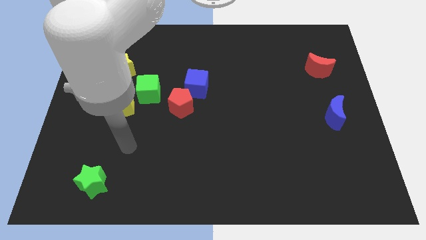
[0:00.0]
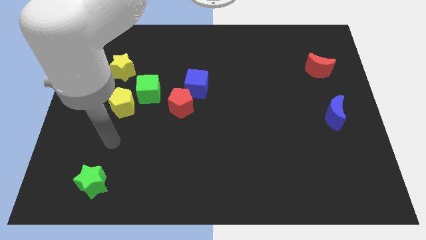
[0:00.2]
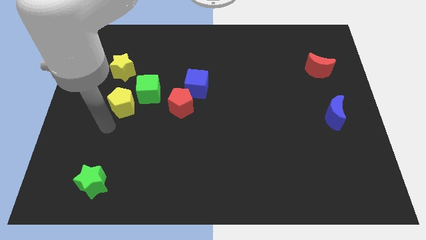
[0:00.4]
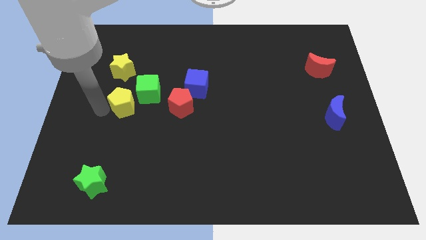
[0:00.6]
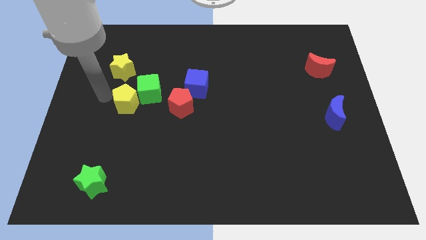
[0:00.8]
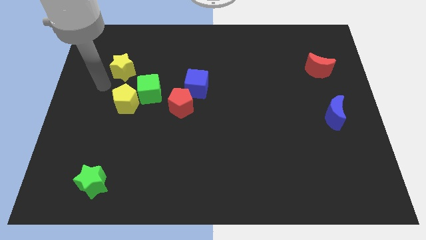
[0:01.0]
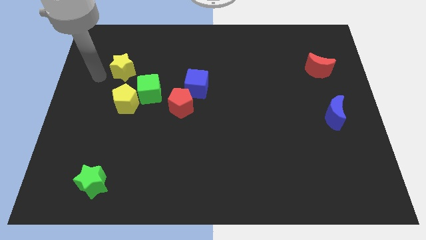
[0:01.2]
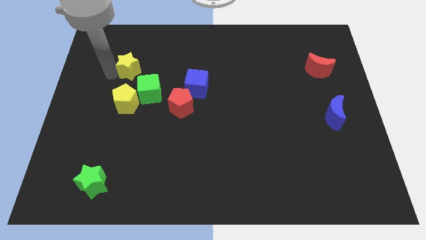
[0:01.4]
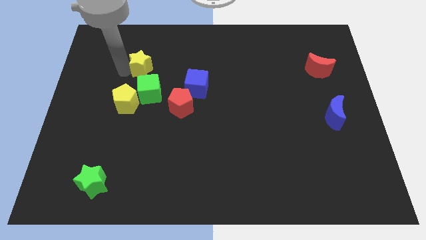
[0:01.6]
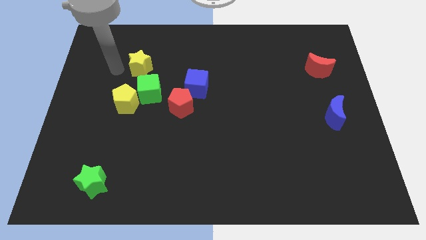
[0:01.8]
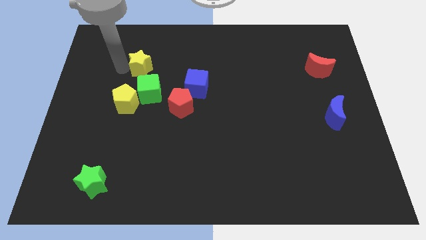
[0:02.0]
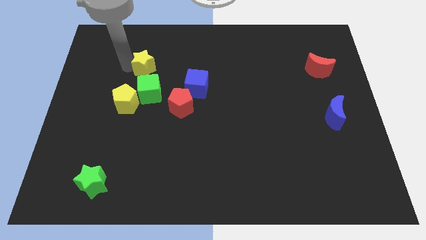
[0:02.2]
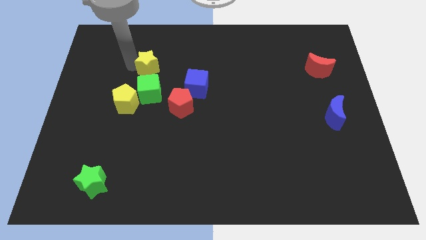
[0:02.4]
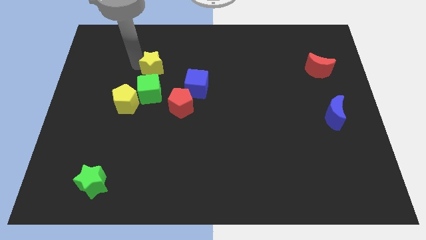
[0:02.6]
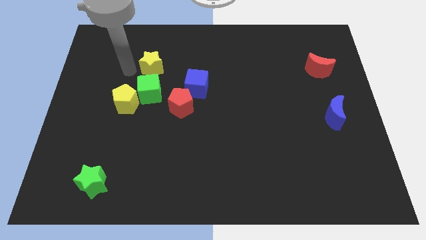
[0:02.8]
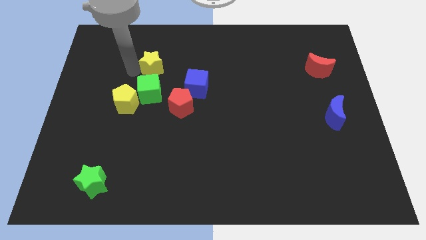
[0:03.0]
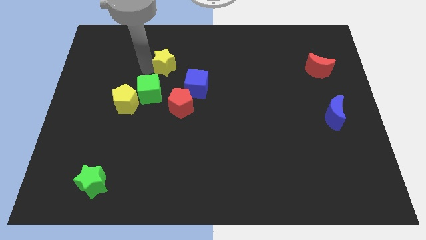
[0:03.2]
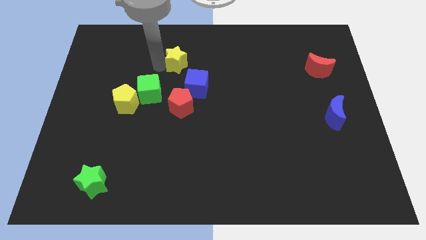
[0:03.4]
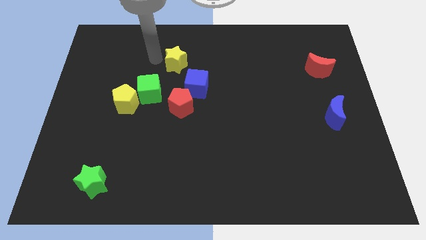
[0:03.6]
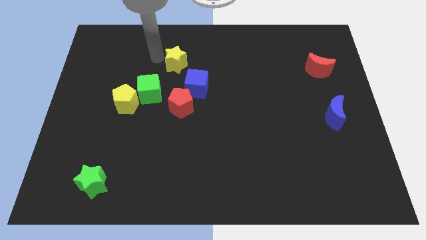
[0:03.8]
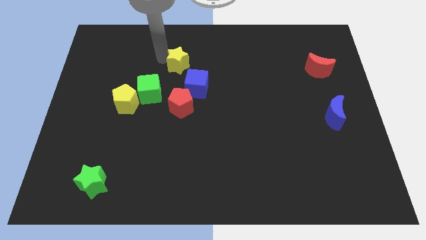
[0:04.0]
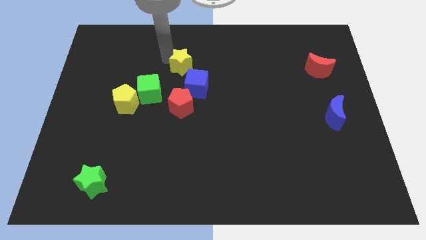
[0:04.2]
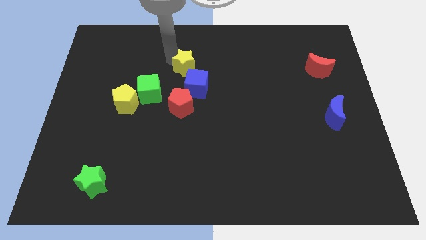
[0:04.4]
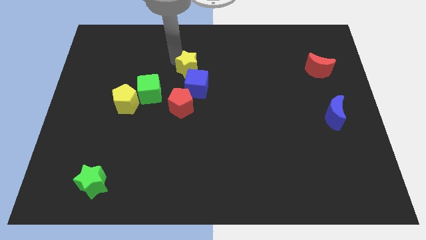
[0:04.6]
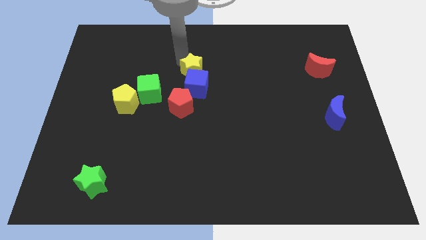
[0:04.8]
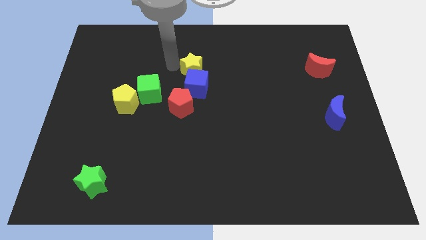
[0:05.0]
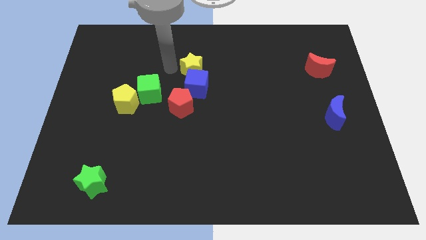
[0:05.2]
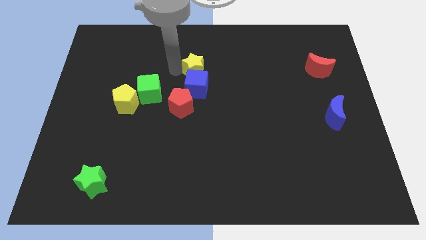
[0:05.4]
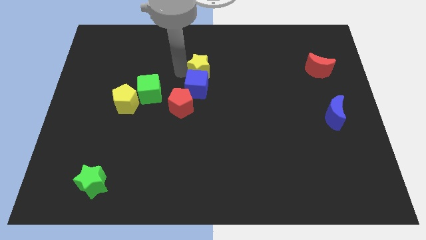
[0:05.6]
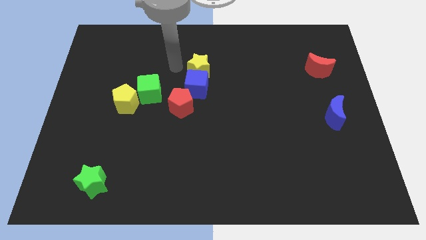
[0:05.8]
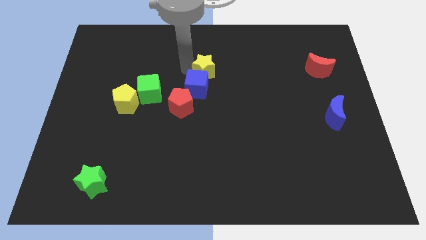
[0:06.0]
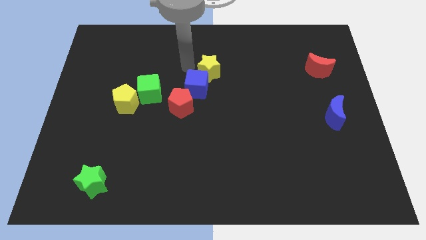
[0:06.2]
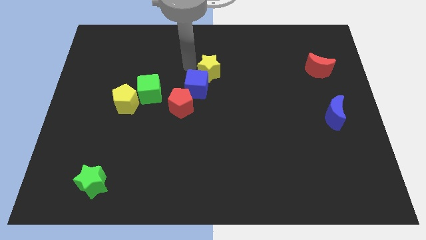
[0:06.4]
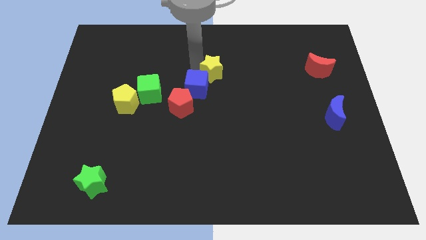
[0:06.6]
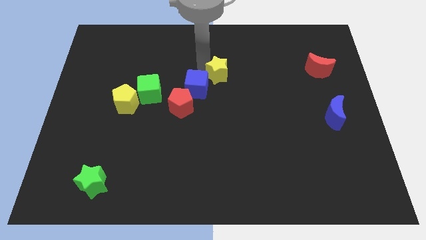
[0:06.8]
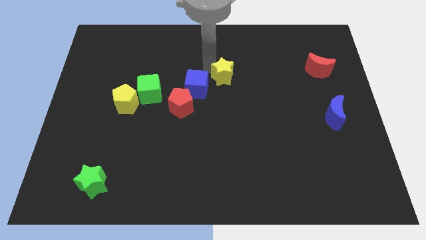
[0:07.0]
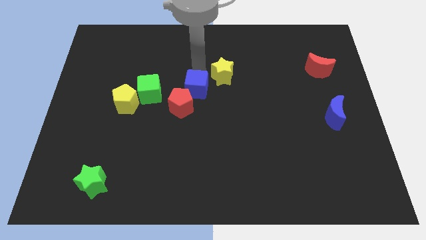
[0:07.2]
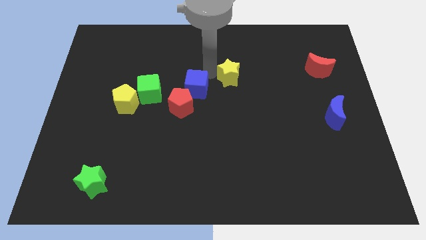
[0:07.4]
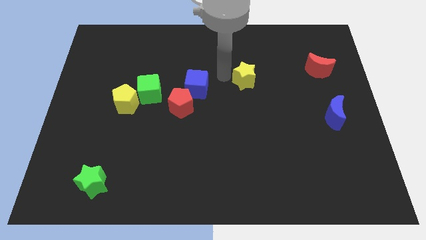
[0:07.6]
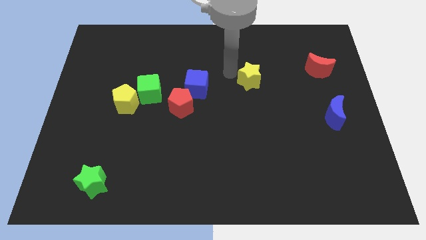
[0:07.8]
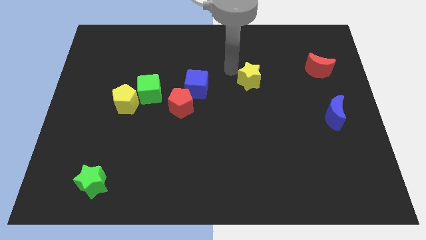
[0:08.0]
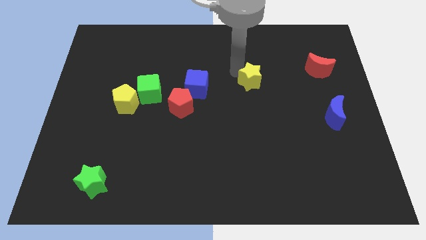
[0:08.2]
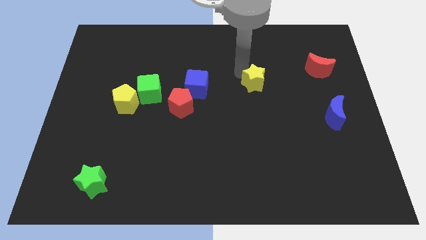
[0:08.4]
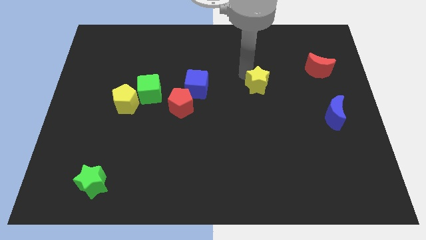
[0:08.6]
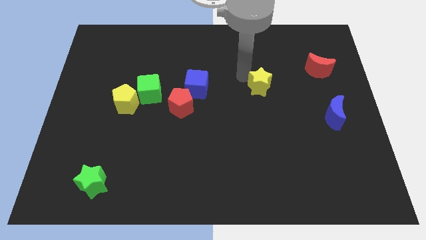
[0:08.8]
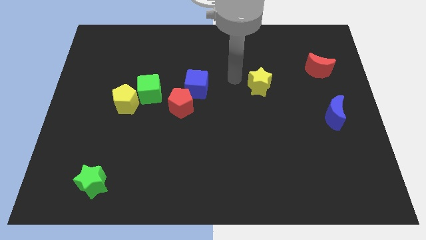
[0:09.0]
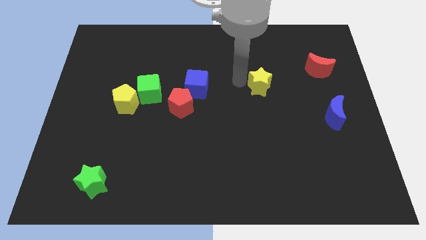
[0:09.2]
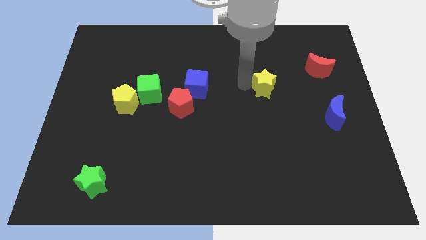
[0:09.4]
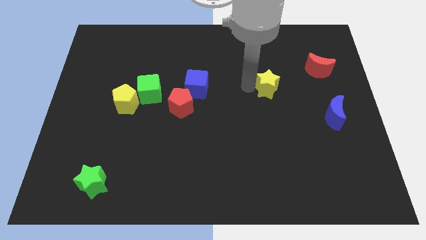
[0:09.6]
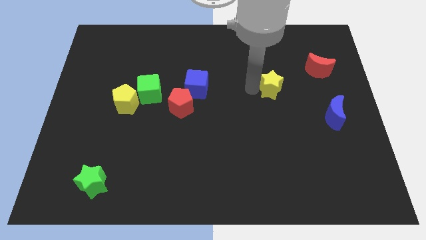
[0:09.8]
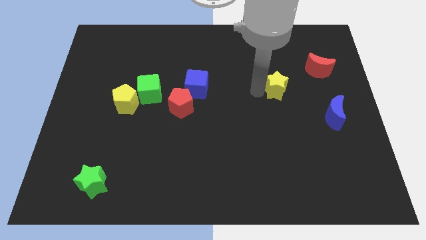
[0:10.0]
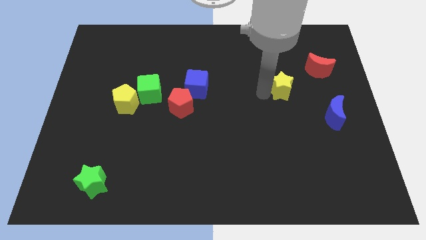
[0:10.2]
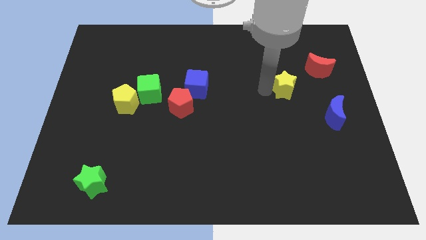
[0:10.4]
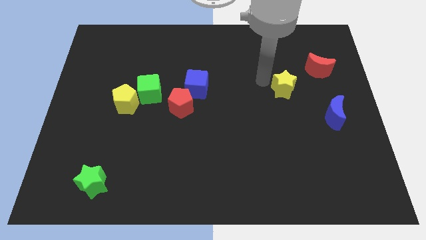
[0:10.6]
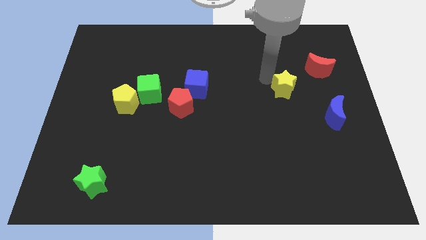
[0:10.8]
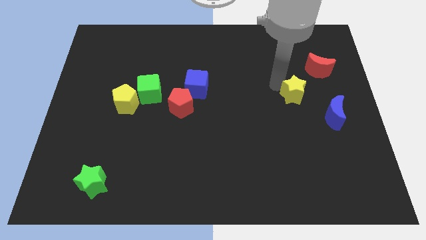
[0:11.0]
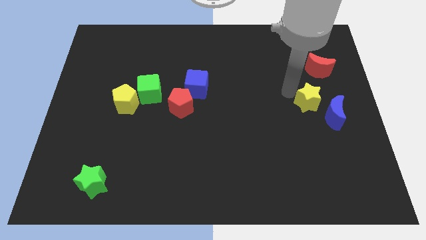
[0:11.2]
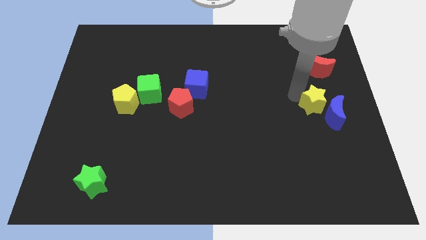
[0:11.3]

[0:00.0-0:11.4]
move the yellow star next to the blue moon

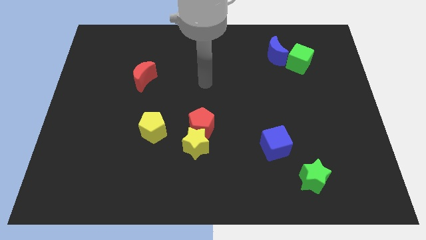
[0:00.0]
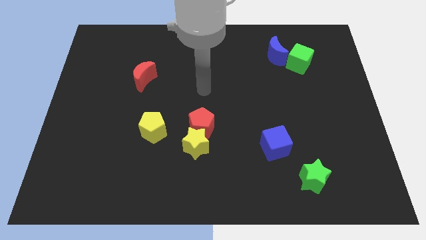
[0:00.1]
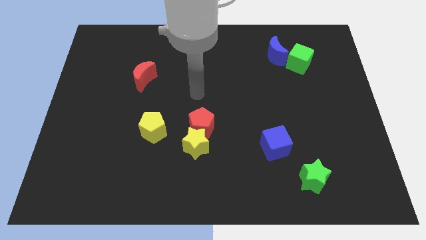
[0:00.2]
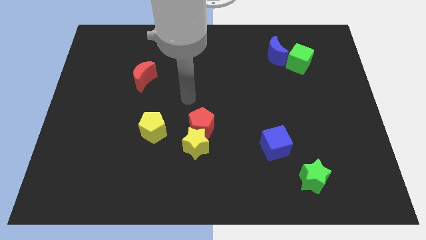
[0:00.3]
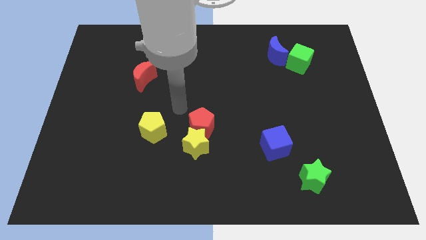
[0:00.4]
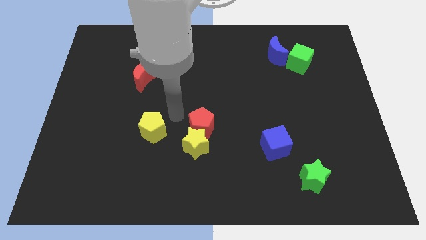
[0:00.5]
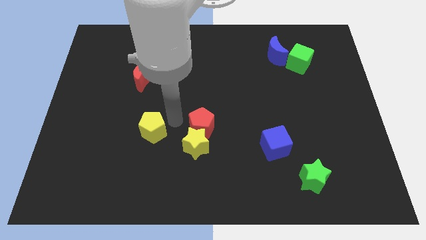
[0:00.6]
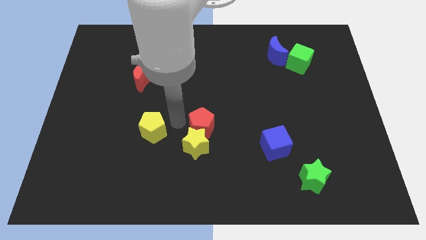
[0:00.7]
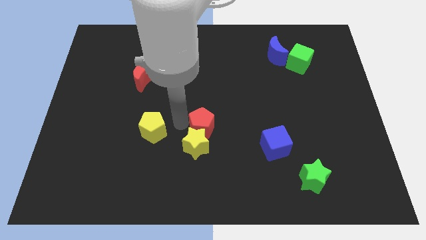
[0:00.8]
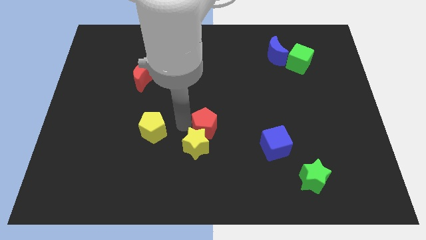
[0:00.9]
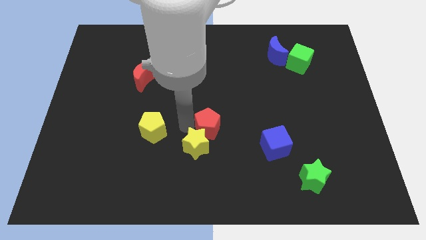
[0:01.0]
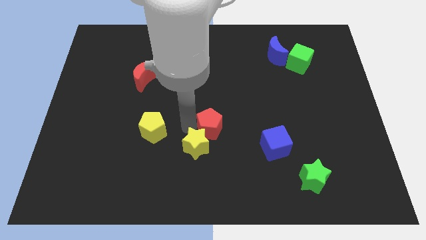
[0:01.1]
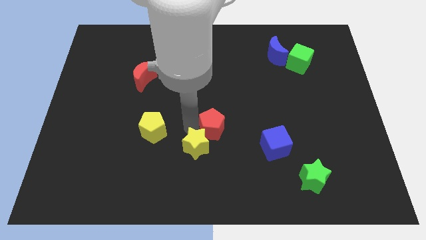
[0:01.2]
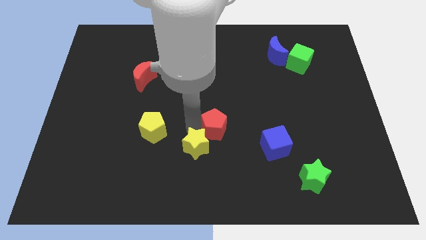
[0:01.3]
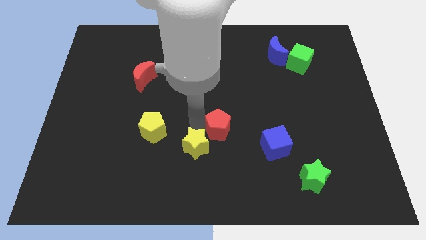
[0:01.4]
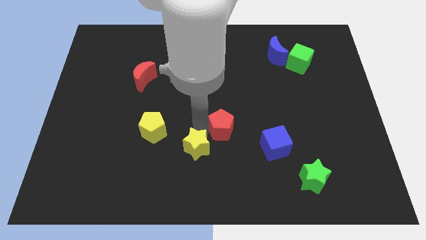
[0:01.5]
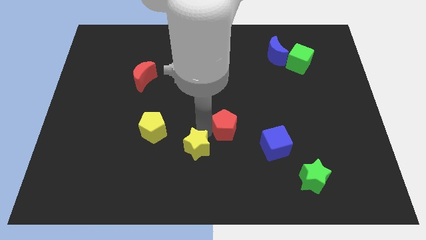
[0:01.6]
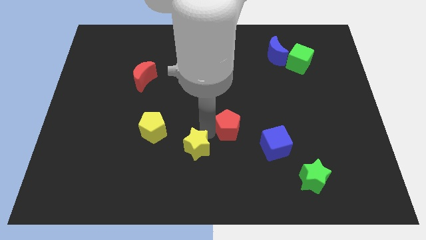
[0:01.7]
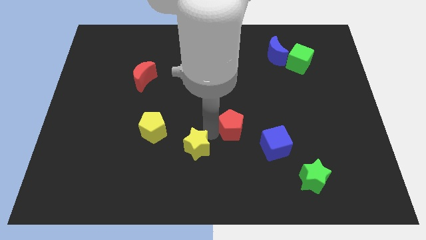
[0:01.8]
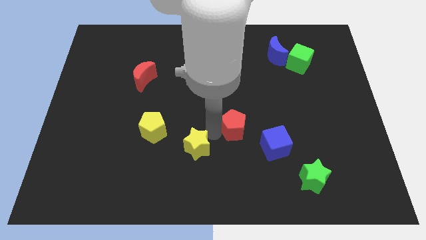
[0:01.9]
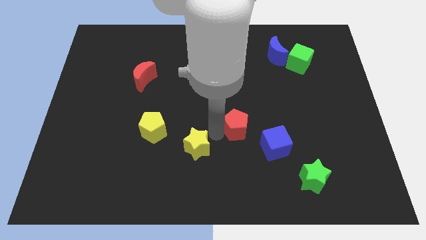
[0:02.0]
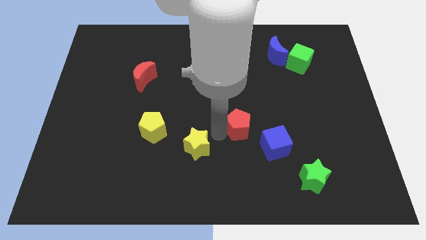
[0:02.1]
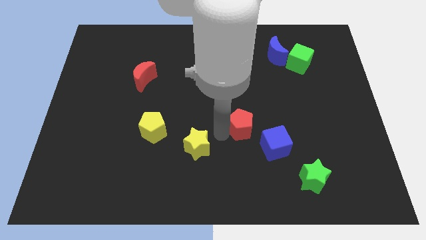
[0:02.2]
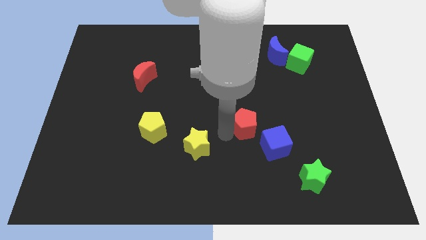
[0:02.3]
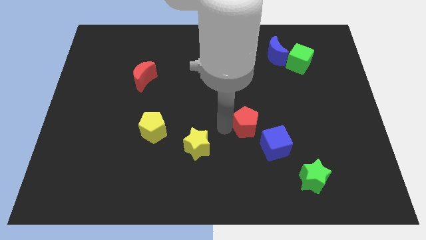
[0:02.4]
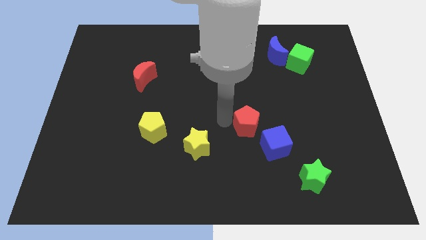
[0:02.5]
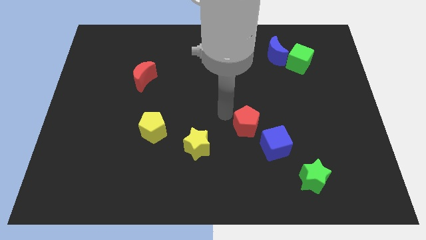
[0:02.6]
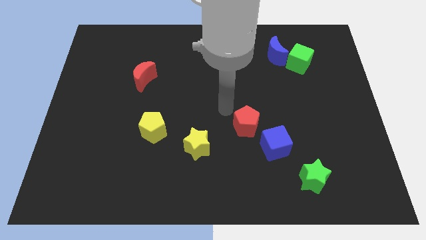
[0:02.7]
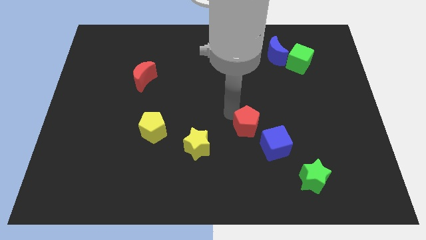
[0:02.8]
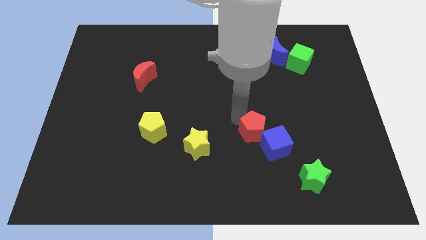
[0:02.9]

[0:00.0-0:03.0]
put the red pentagon next to the blue cube
